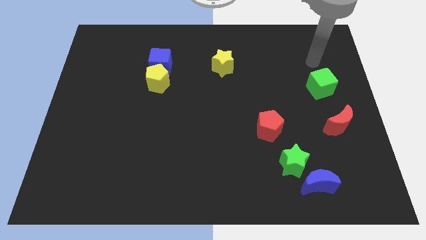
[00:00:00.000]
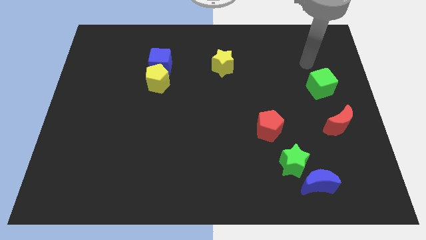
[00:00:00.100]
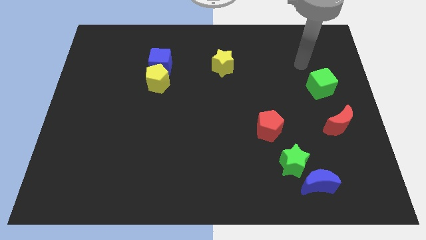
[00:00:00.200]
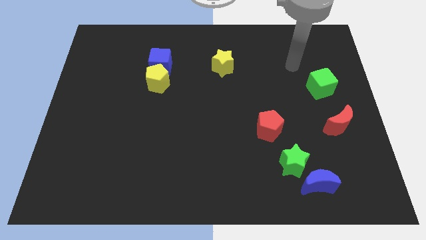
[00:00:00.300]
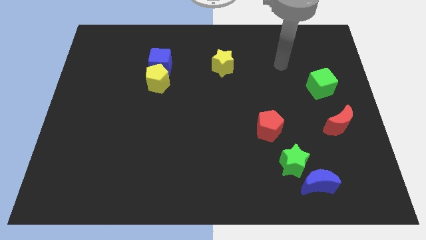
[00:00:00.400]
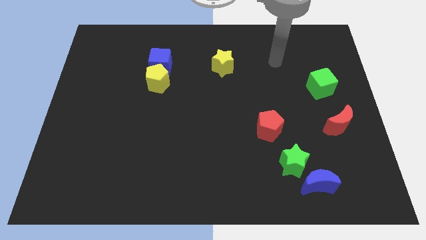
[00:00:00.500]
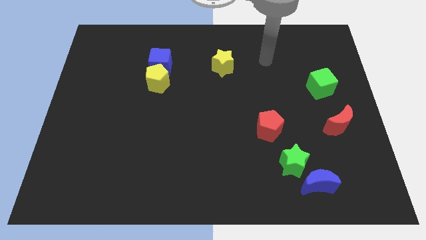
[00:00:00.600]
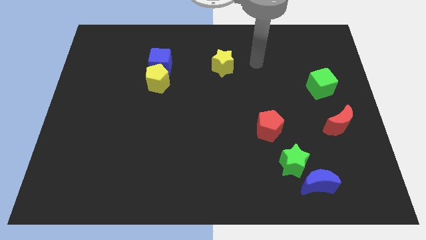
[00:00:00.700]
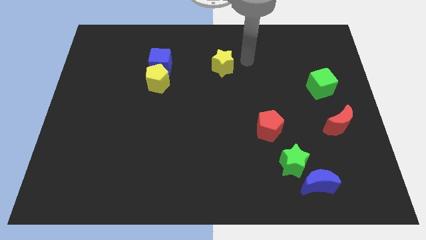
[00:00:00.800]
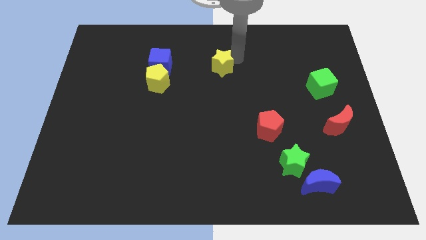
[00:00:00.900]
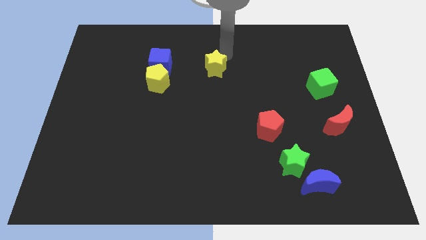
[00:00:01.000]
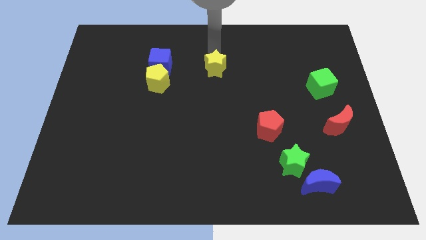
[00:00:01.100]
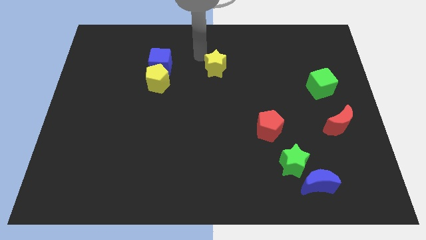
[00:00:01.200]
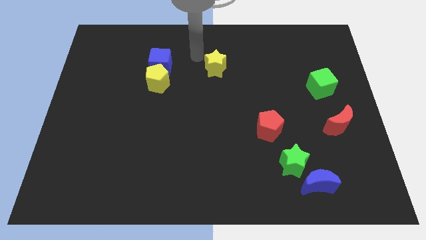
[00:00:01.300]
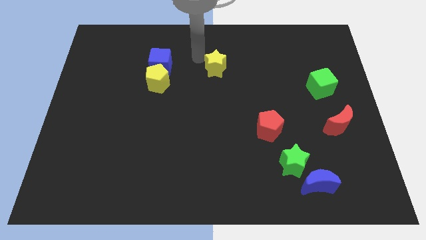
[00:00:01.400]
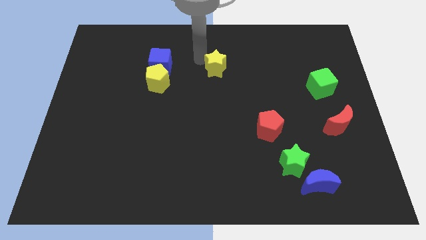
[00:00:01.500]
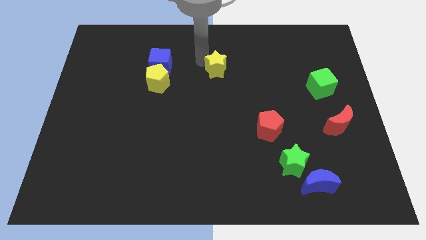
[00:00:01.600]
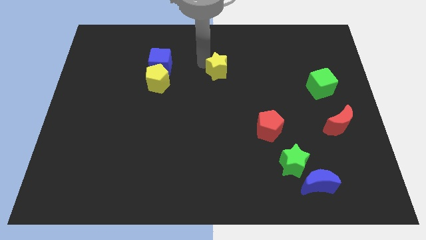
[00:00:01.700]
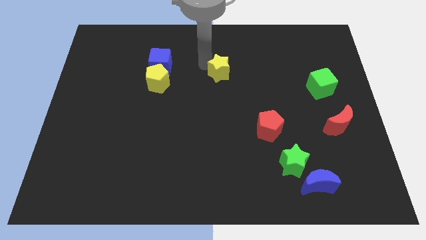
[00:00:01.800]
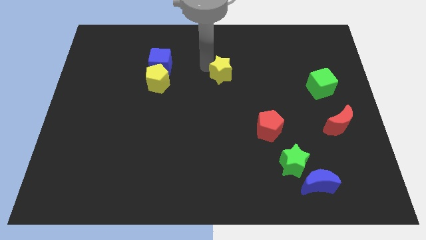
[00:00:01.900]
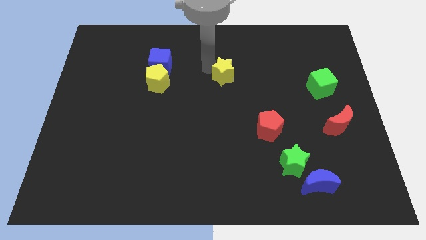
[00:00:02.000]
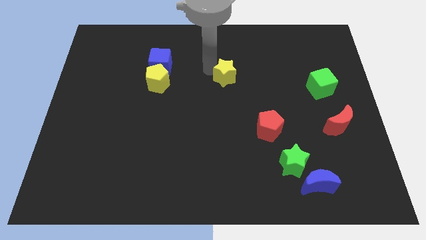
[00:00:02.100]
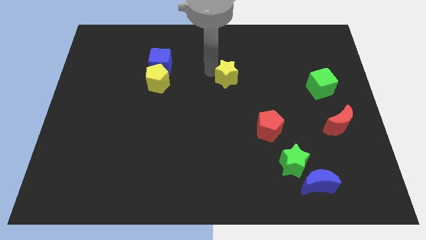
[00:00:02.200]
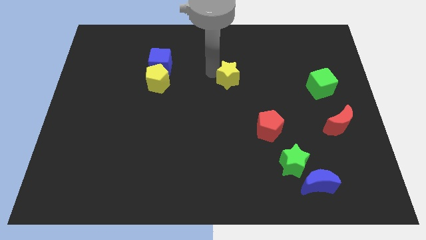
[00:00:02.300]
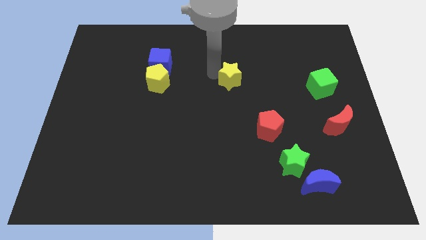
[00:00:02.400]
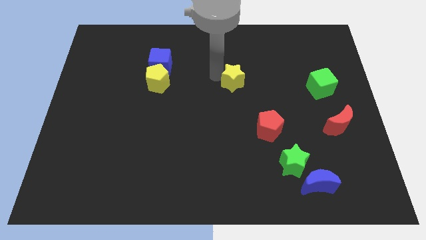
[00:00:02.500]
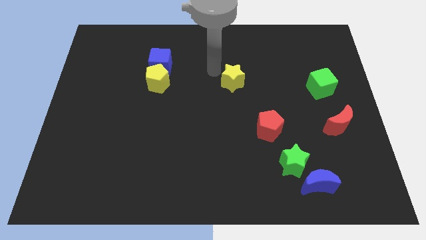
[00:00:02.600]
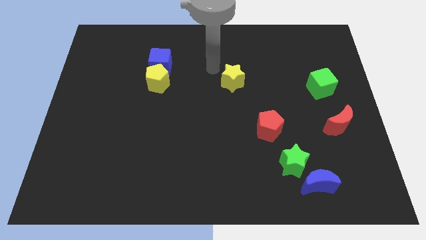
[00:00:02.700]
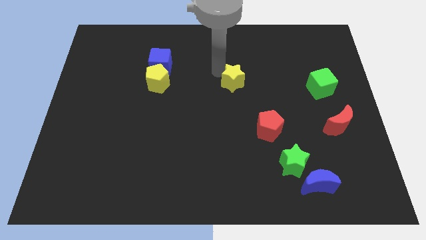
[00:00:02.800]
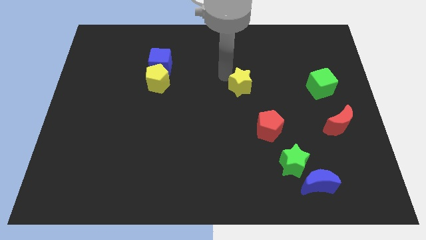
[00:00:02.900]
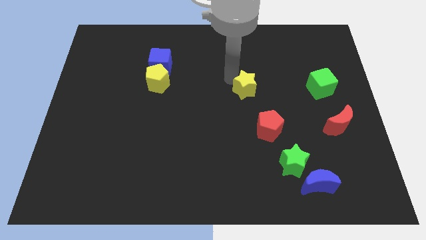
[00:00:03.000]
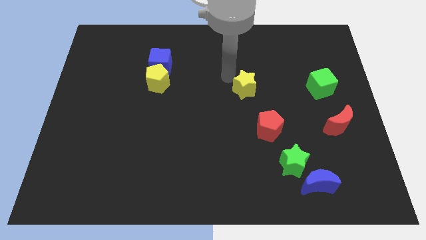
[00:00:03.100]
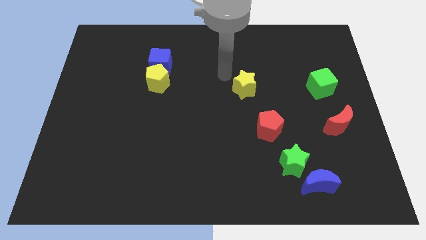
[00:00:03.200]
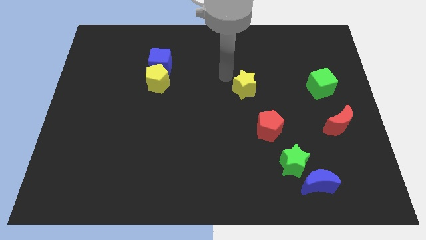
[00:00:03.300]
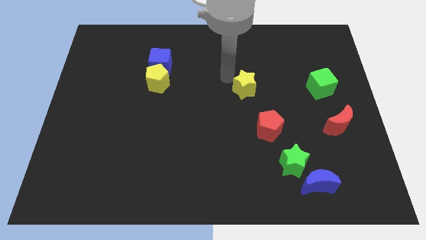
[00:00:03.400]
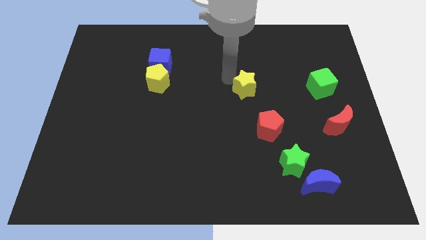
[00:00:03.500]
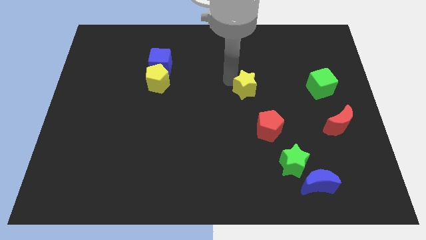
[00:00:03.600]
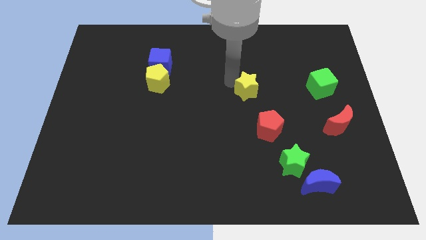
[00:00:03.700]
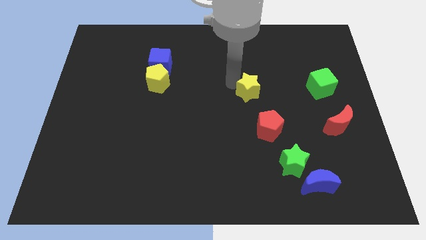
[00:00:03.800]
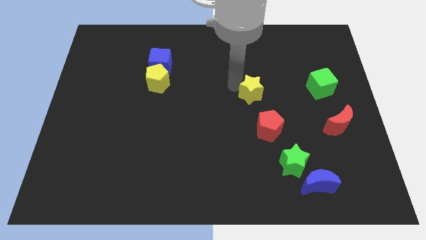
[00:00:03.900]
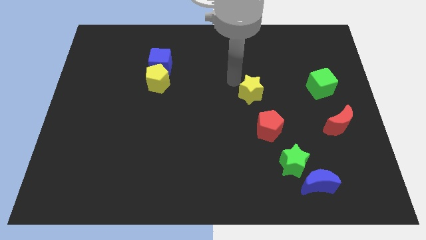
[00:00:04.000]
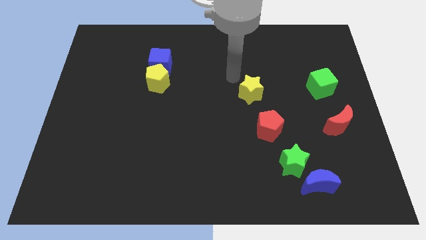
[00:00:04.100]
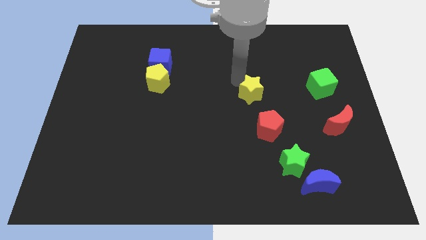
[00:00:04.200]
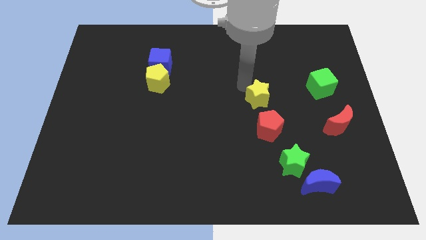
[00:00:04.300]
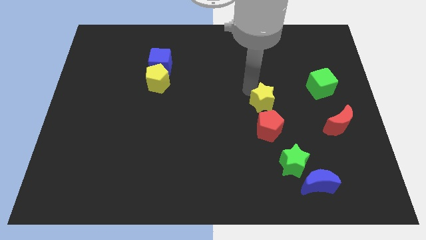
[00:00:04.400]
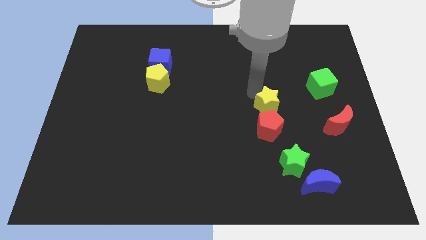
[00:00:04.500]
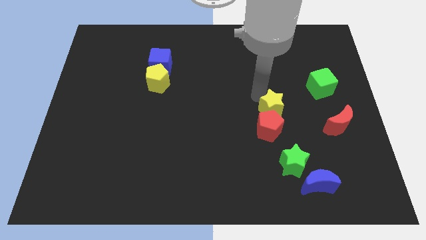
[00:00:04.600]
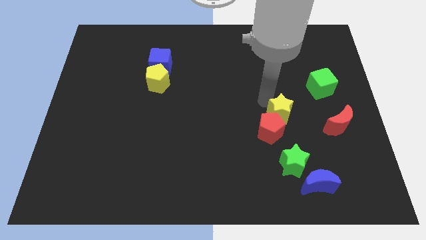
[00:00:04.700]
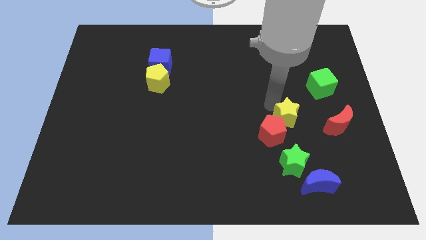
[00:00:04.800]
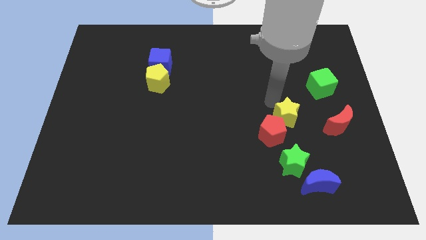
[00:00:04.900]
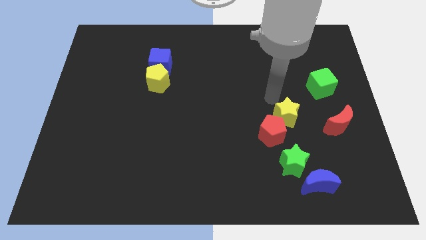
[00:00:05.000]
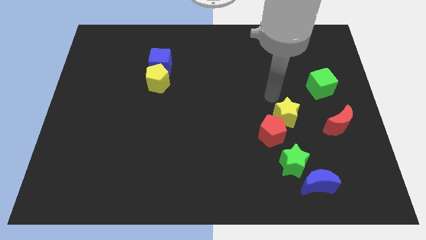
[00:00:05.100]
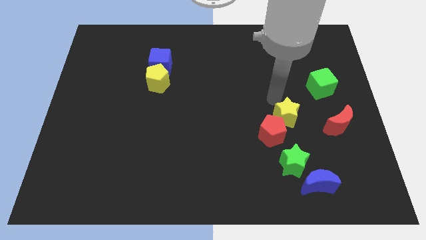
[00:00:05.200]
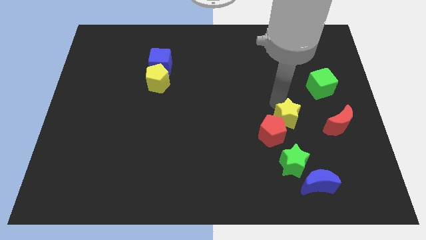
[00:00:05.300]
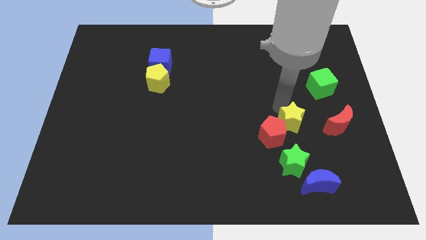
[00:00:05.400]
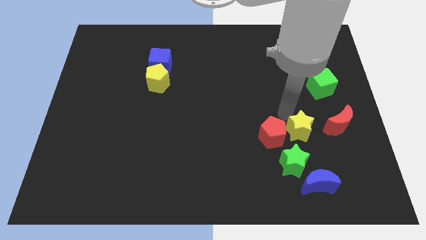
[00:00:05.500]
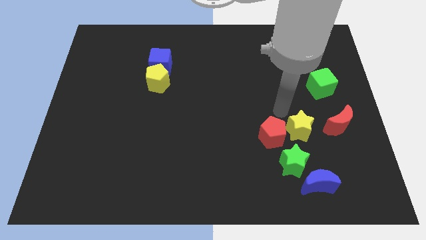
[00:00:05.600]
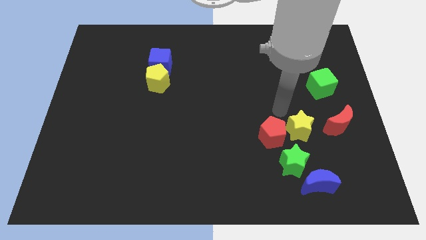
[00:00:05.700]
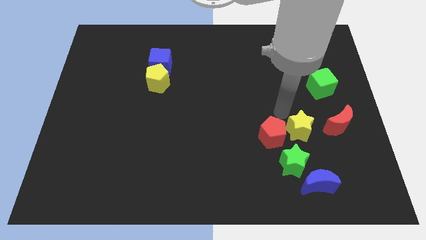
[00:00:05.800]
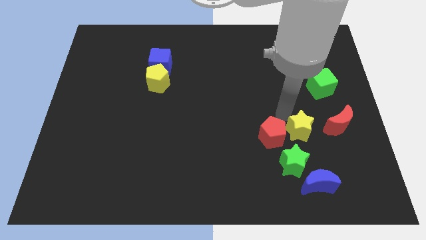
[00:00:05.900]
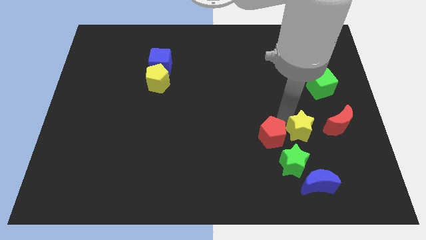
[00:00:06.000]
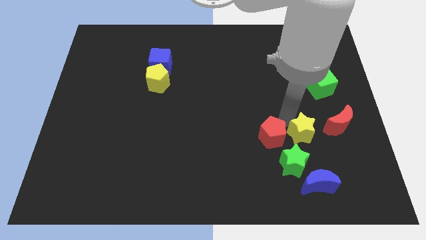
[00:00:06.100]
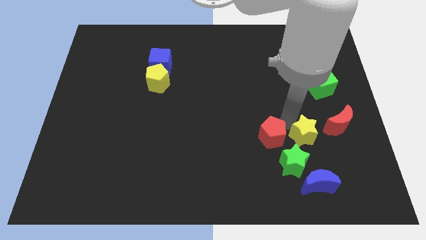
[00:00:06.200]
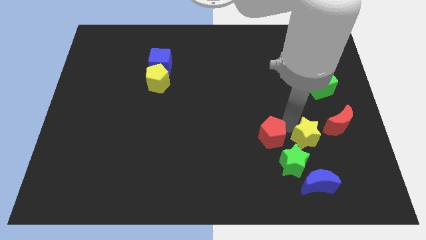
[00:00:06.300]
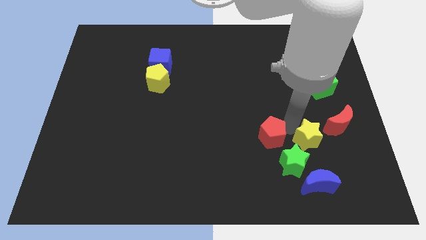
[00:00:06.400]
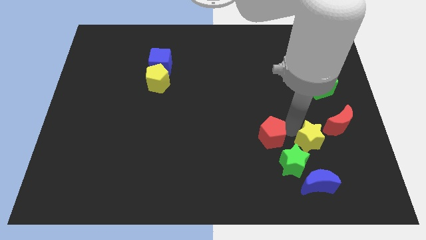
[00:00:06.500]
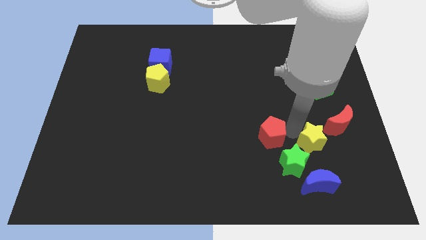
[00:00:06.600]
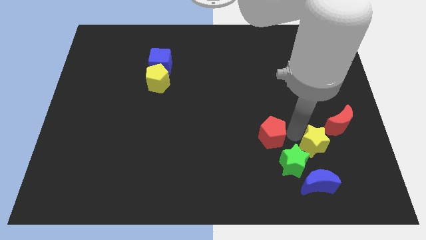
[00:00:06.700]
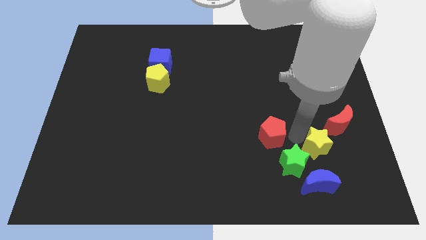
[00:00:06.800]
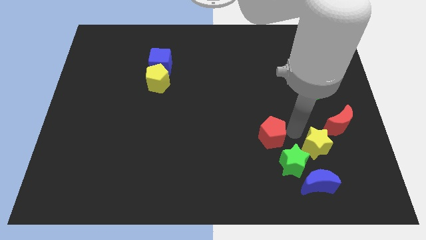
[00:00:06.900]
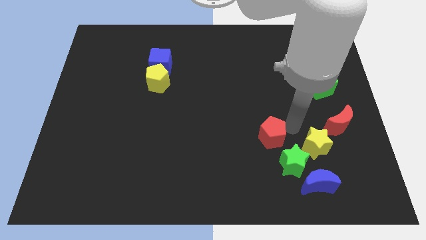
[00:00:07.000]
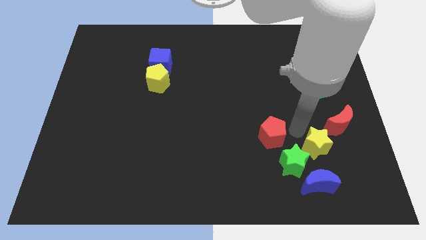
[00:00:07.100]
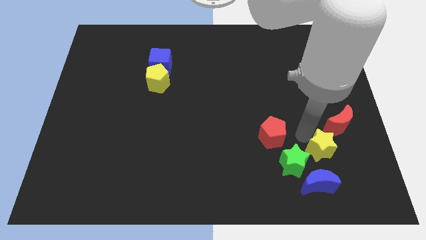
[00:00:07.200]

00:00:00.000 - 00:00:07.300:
push the yellow star to the top right of the blue moon
